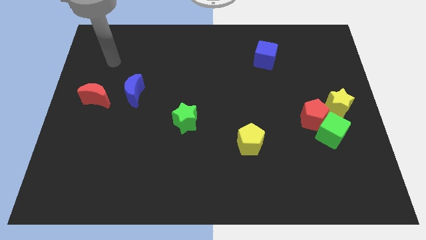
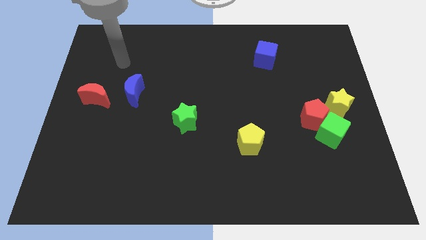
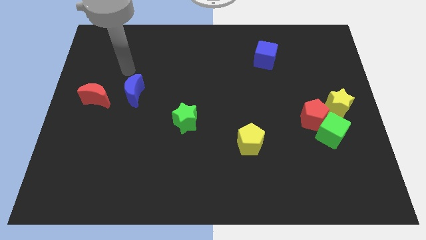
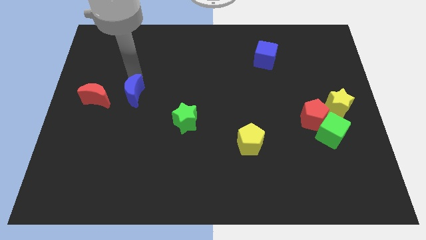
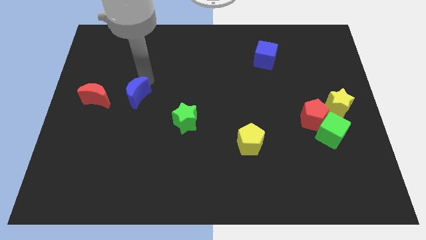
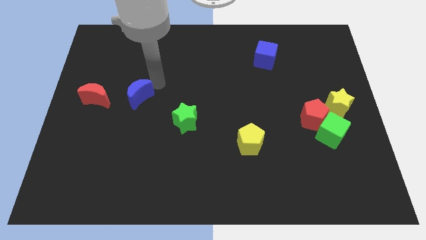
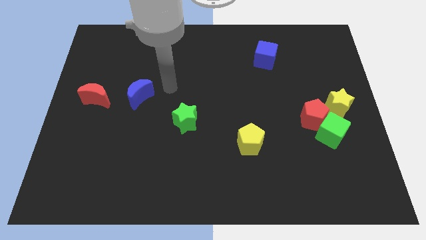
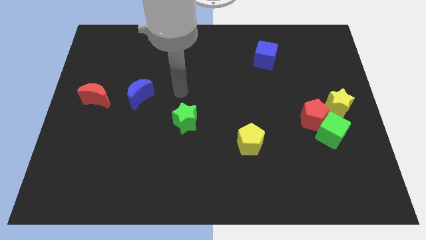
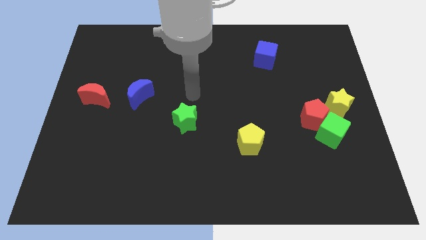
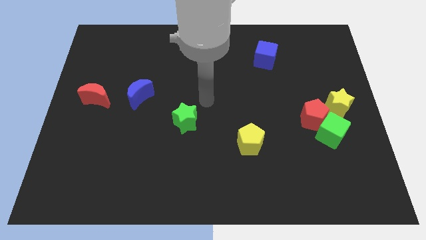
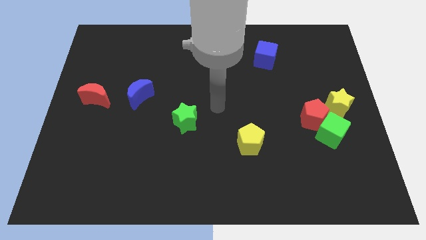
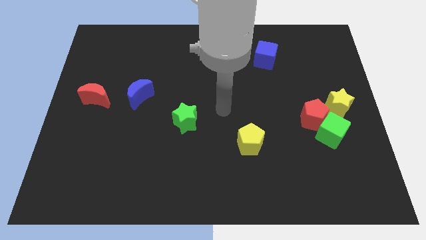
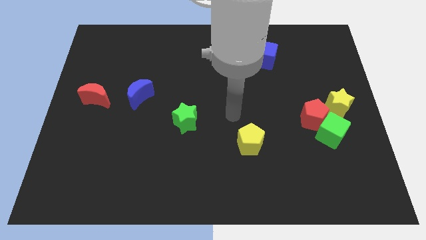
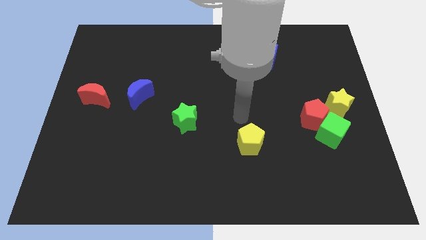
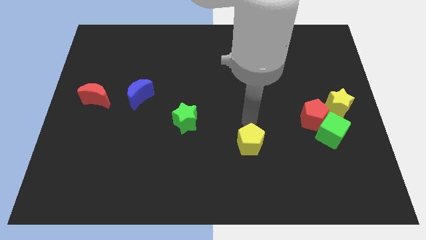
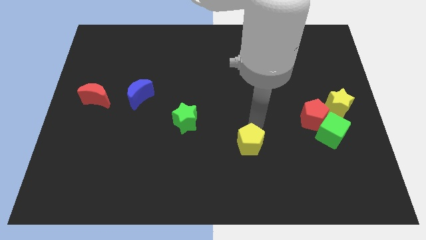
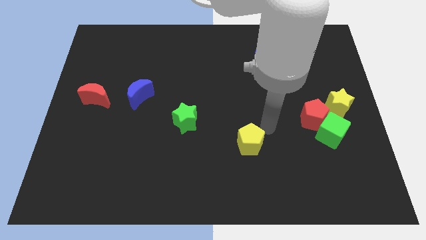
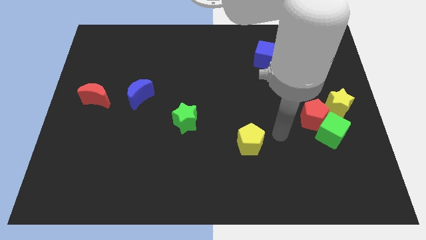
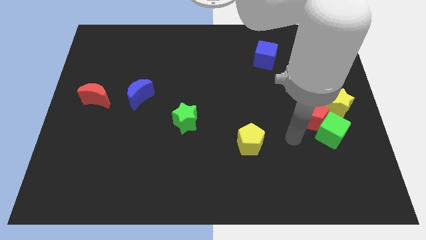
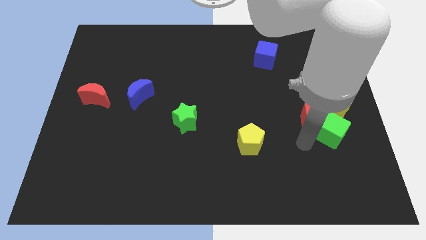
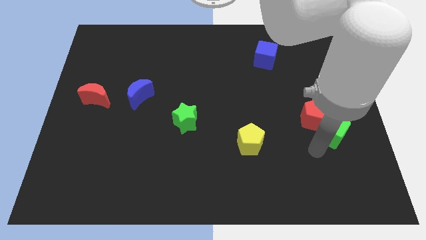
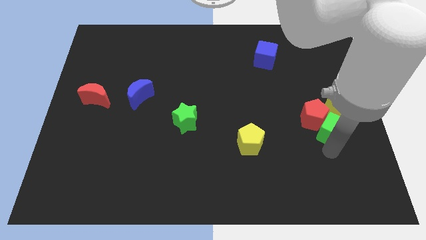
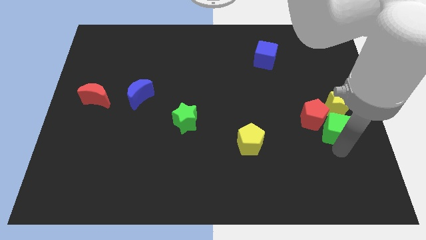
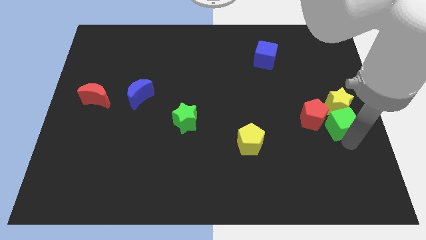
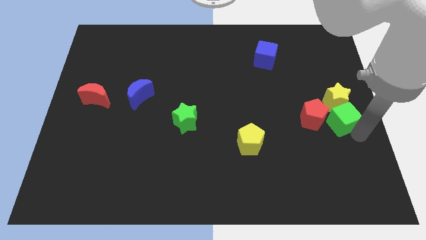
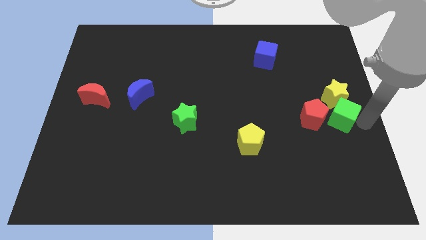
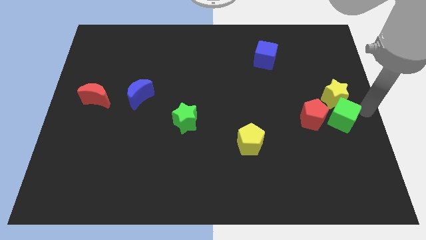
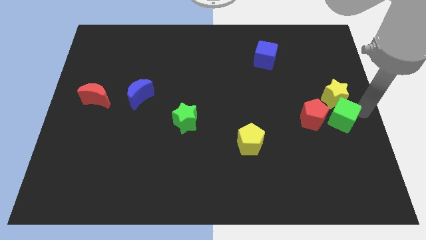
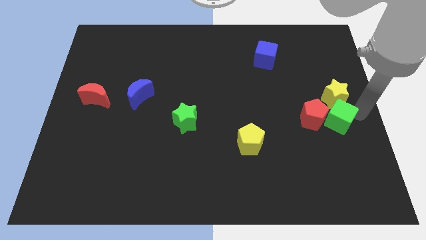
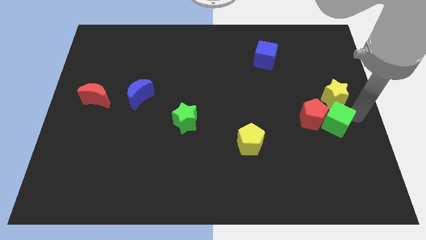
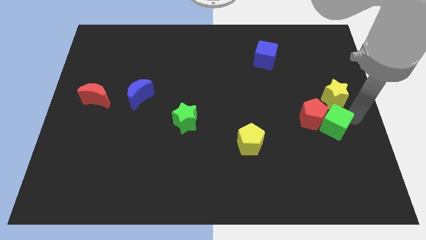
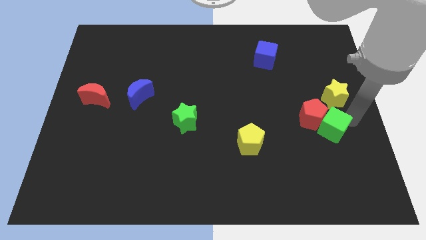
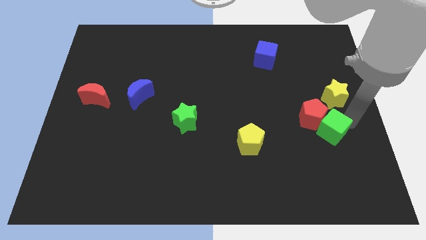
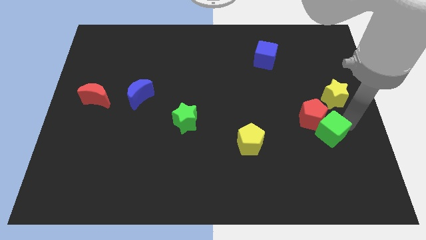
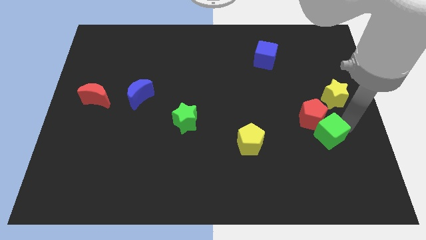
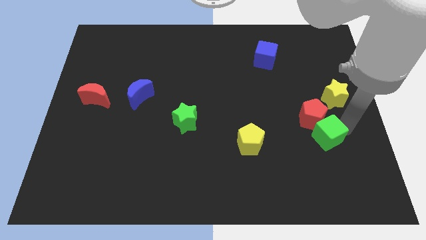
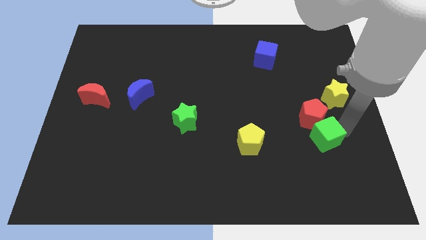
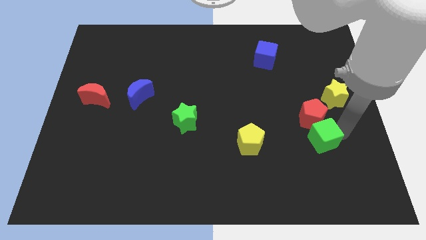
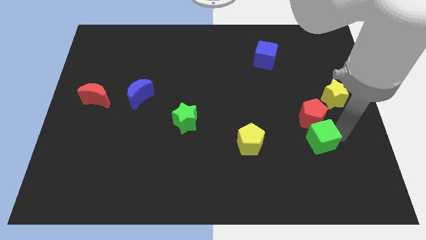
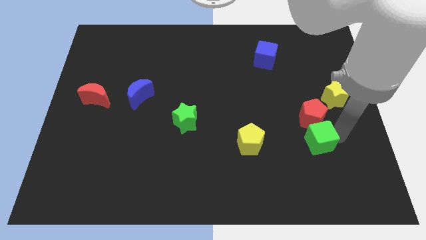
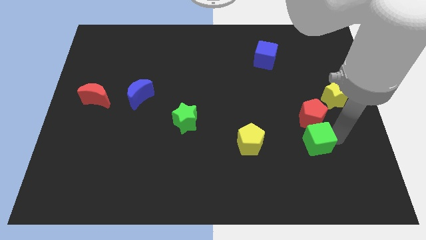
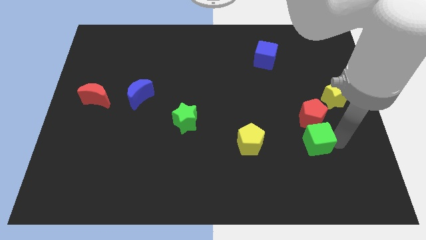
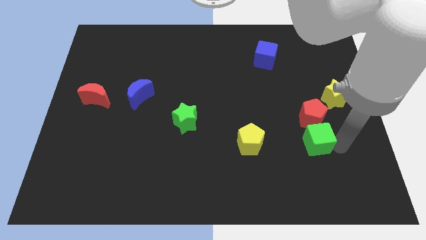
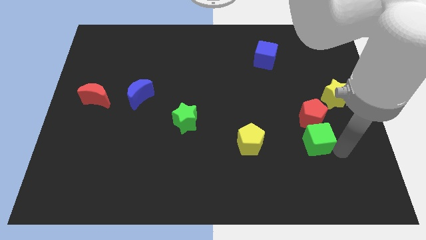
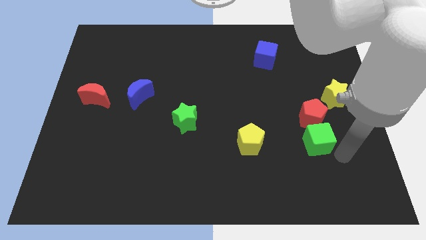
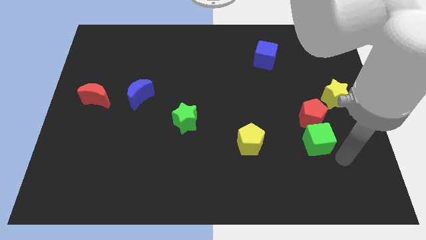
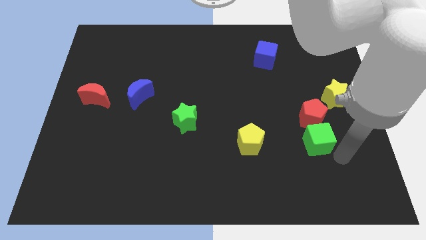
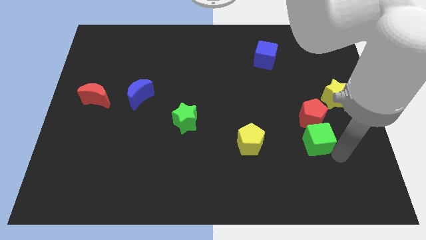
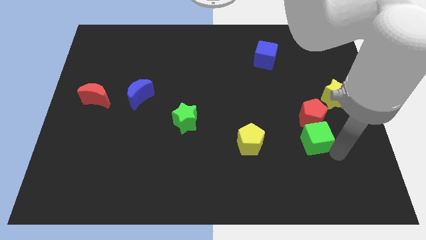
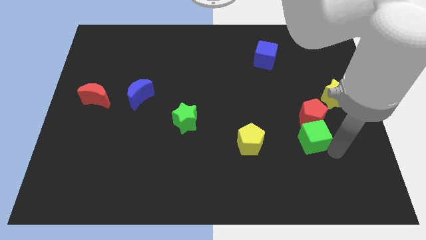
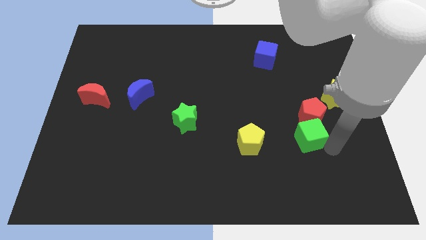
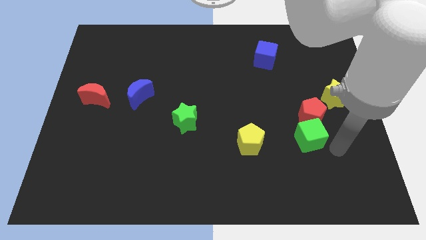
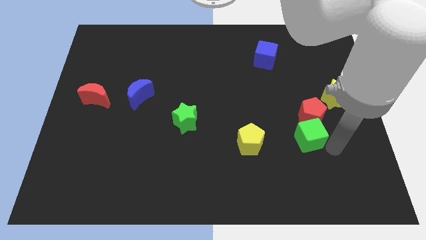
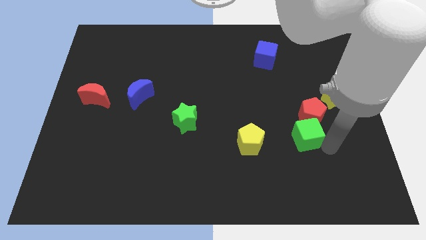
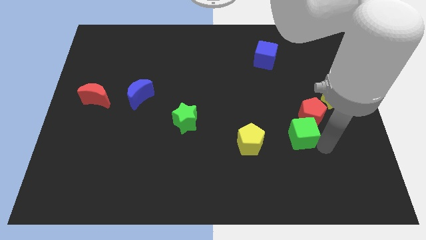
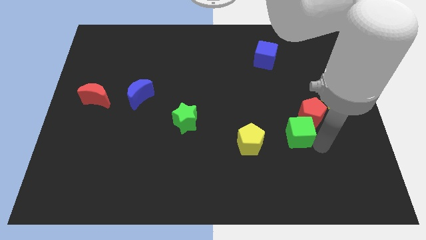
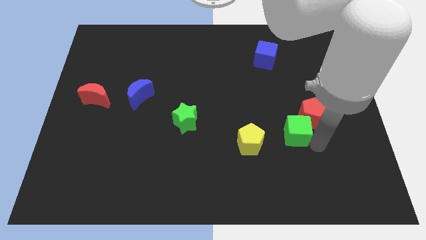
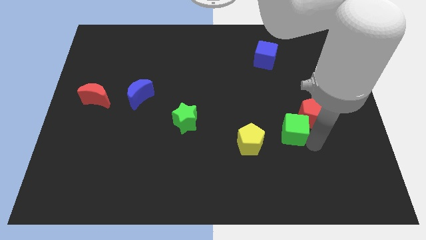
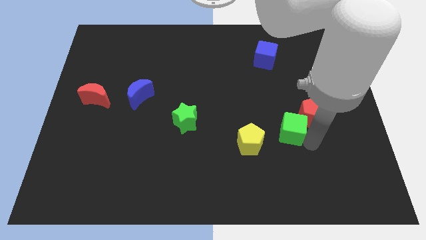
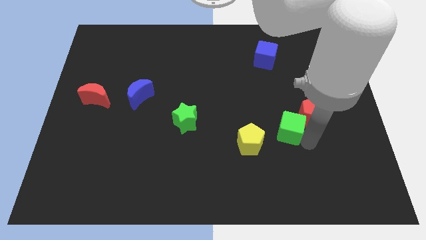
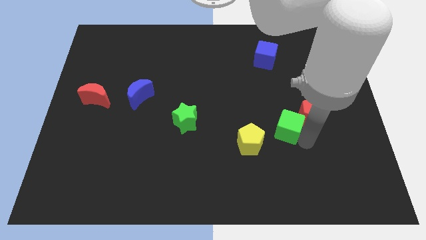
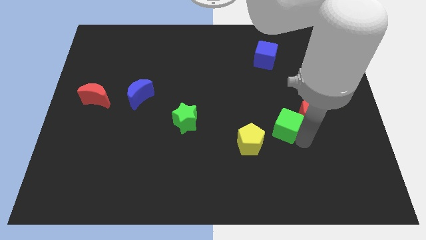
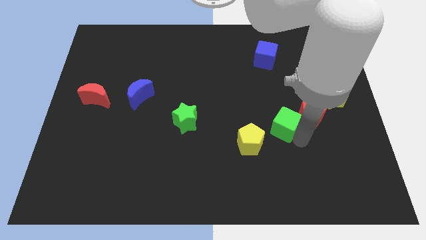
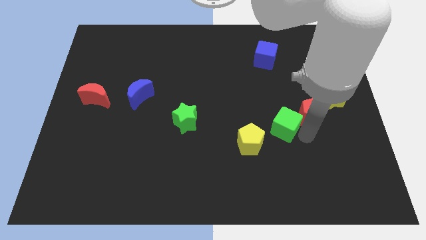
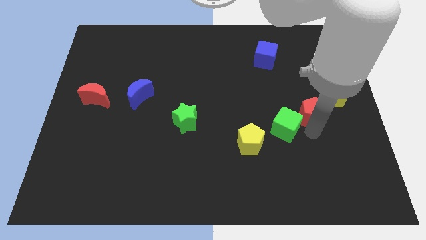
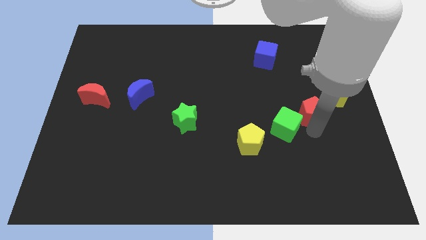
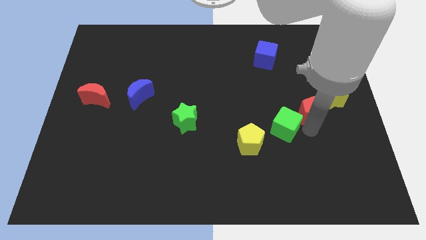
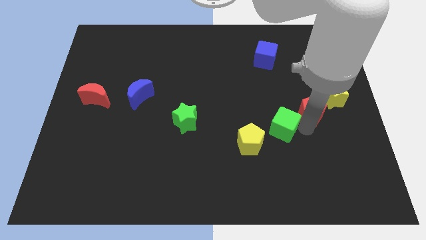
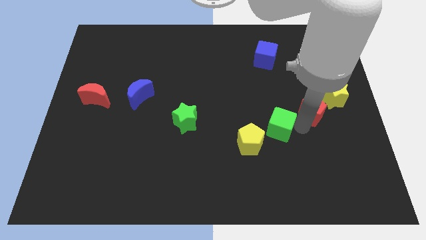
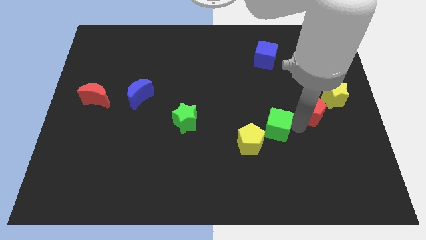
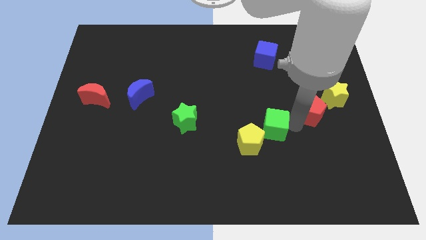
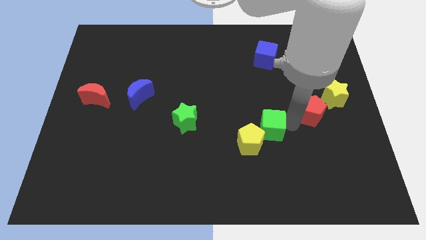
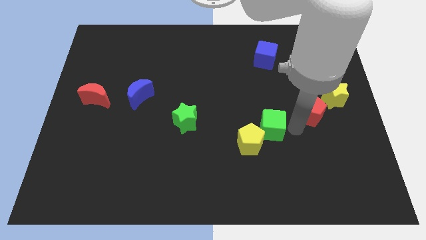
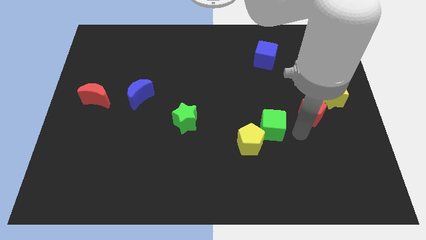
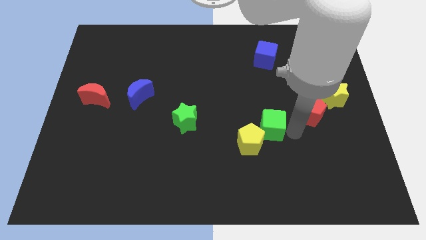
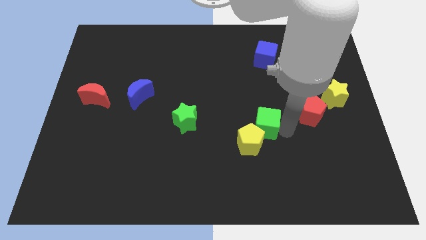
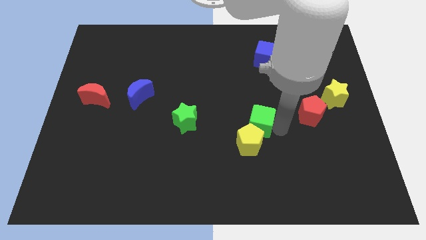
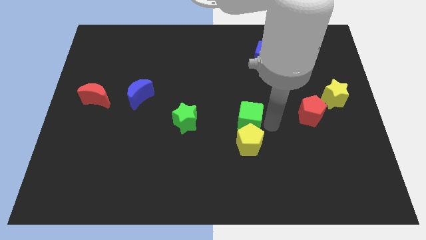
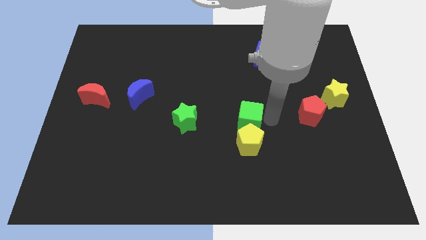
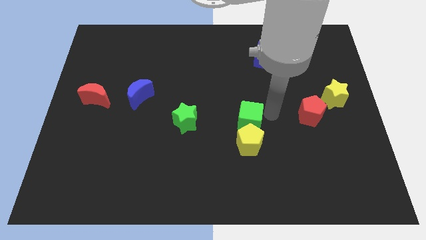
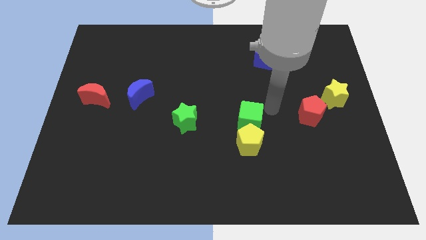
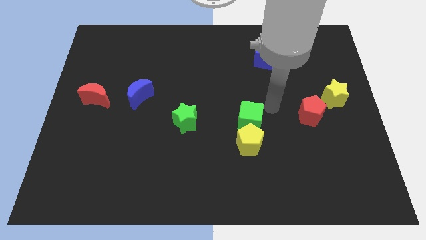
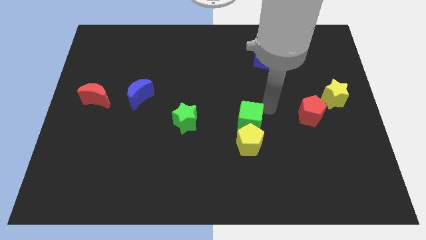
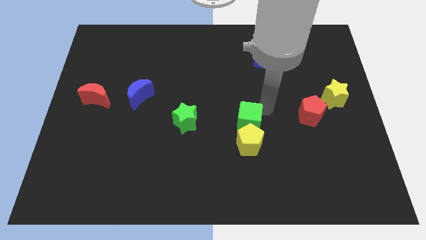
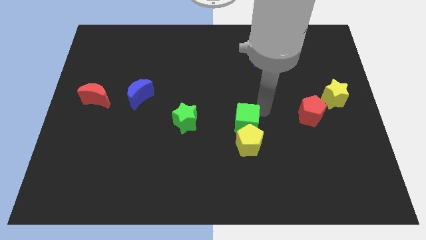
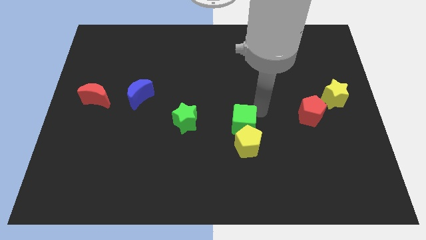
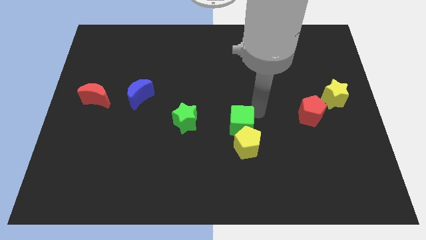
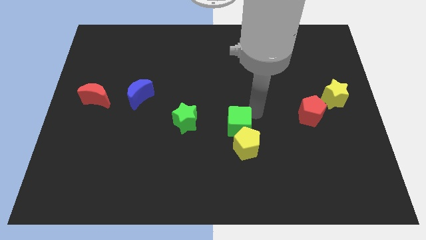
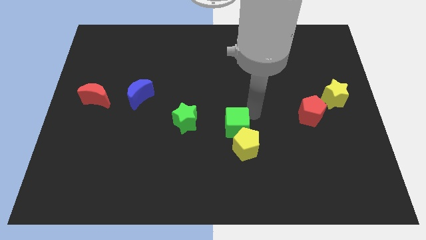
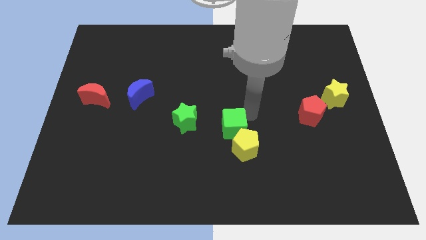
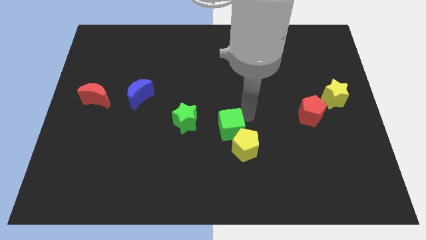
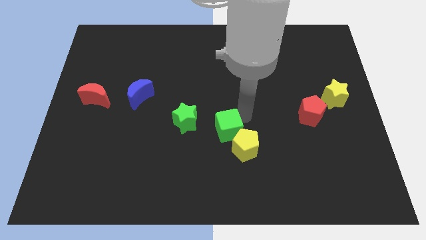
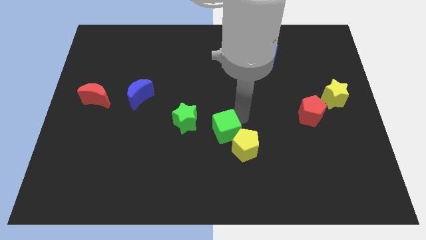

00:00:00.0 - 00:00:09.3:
slide the green cube diagonally down and to the right of the green star
